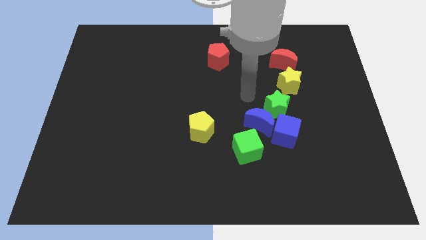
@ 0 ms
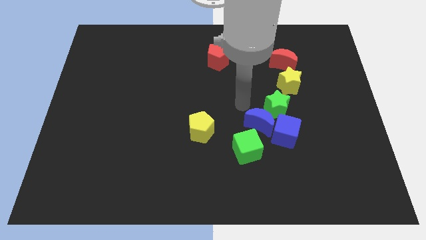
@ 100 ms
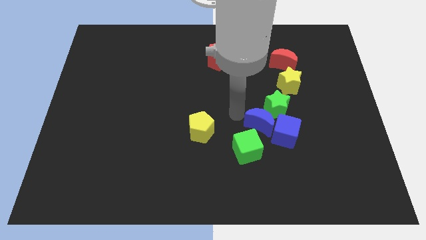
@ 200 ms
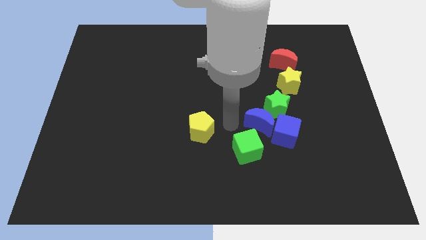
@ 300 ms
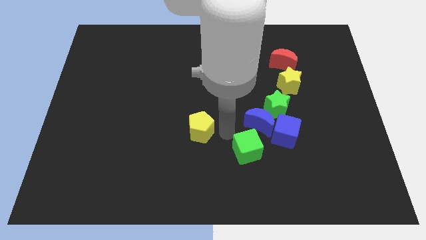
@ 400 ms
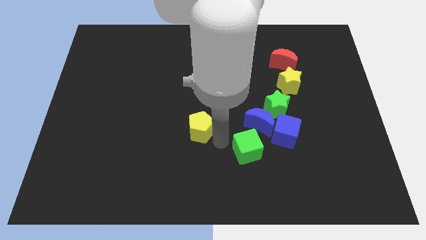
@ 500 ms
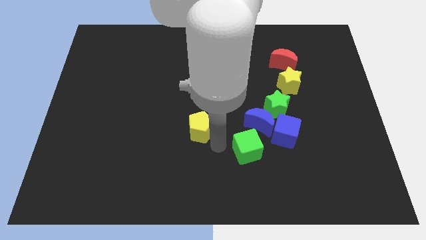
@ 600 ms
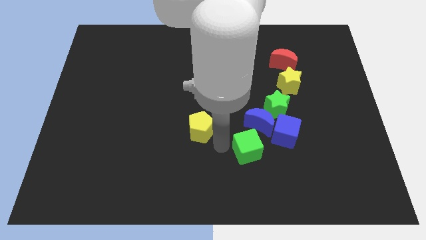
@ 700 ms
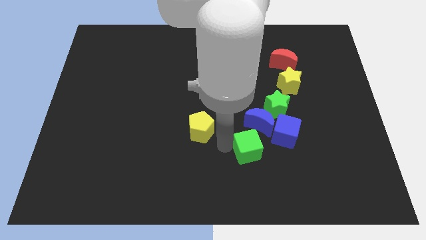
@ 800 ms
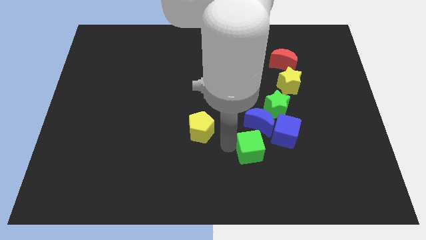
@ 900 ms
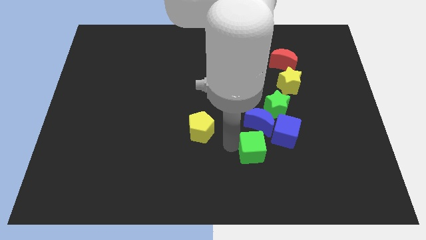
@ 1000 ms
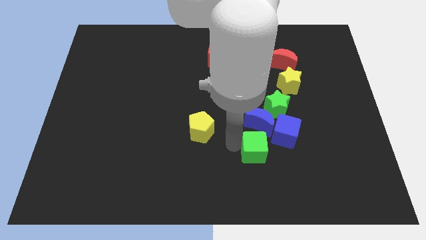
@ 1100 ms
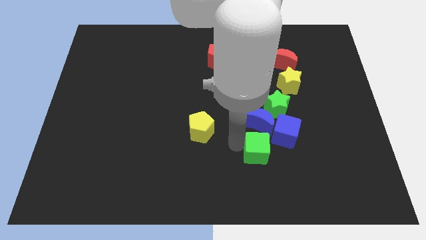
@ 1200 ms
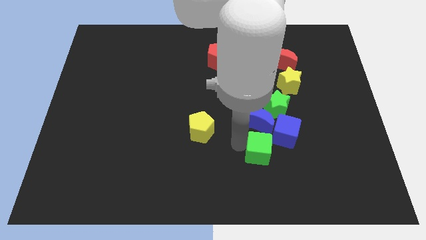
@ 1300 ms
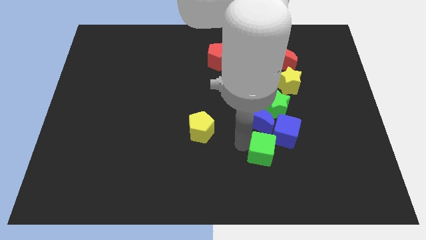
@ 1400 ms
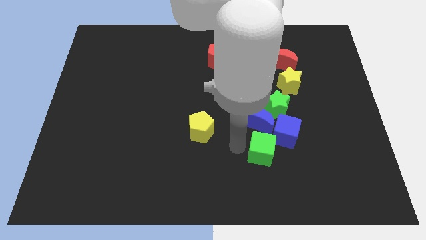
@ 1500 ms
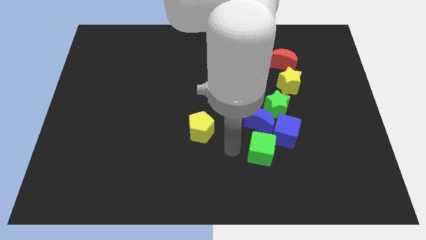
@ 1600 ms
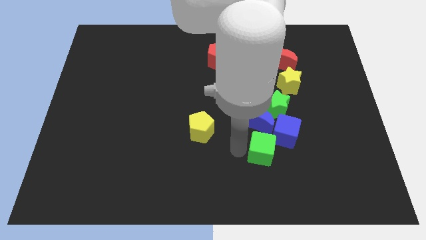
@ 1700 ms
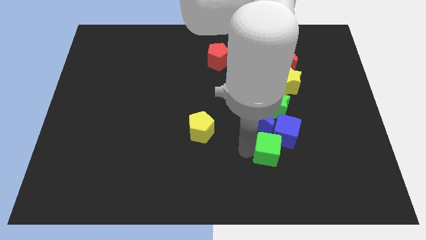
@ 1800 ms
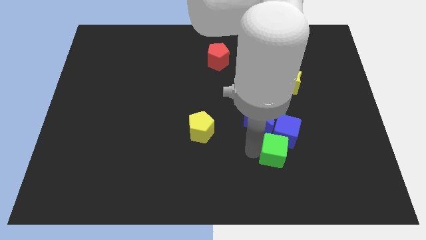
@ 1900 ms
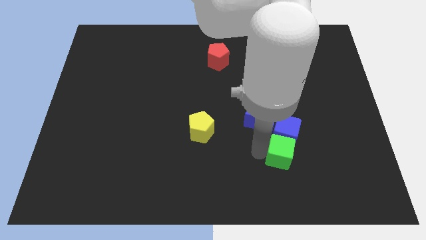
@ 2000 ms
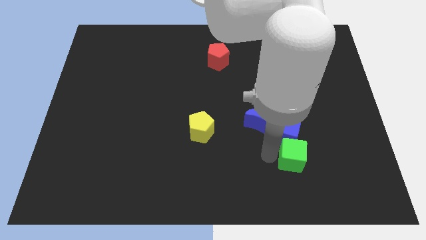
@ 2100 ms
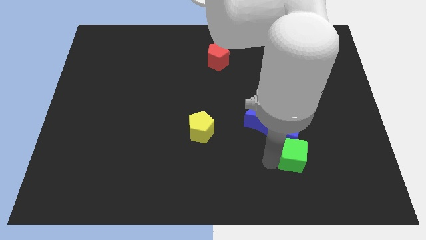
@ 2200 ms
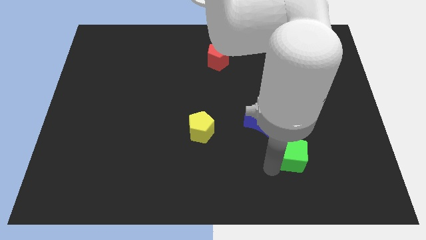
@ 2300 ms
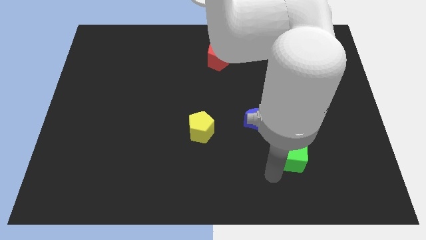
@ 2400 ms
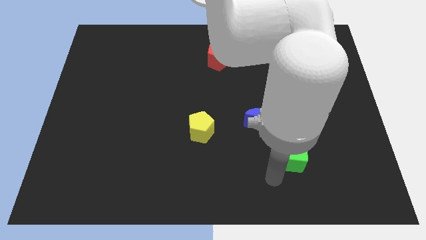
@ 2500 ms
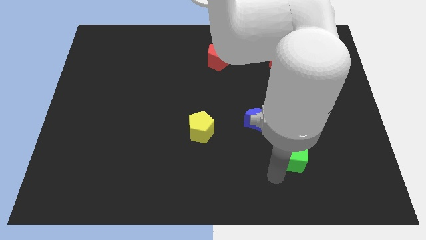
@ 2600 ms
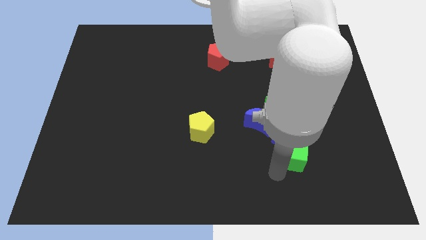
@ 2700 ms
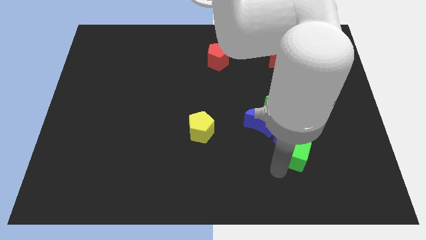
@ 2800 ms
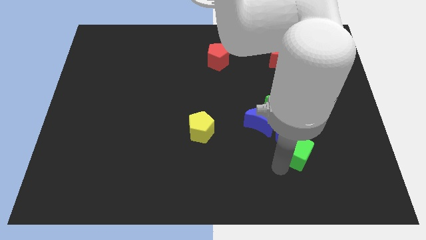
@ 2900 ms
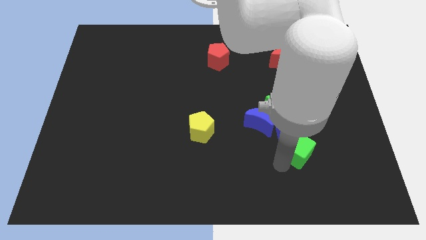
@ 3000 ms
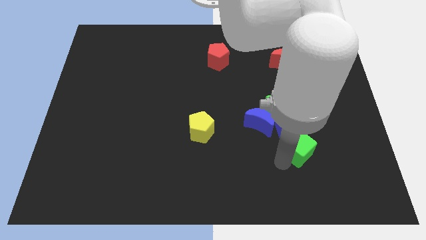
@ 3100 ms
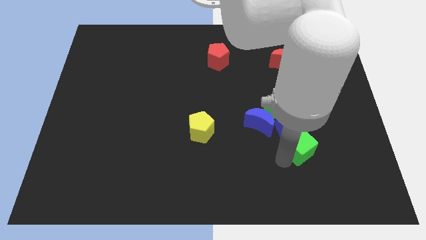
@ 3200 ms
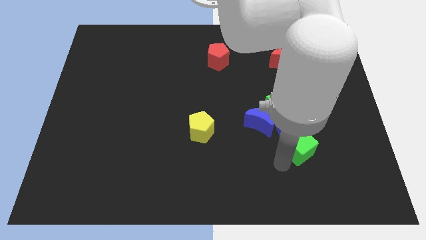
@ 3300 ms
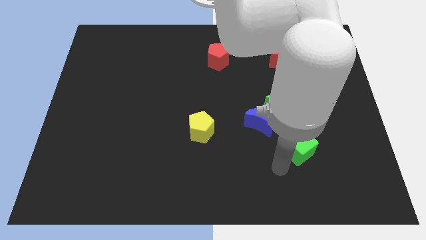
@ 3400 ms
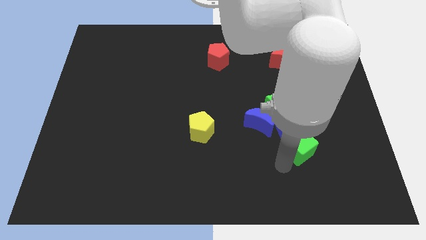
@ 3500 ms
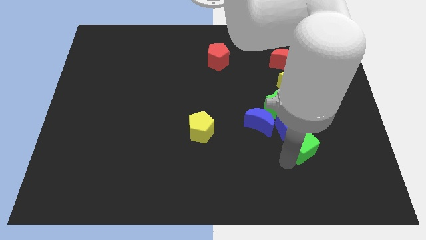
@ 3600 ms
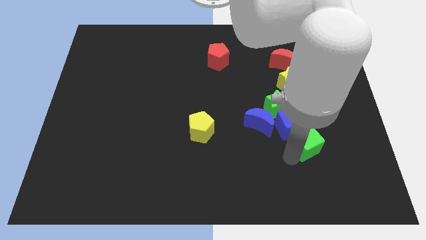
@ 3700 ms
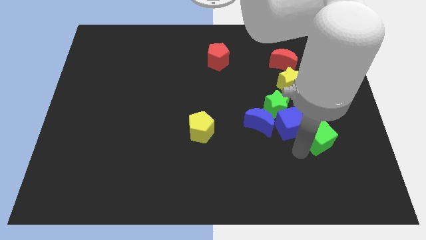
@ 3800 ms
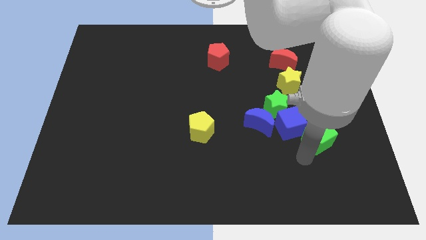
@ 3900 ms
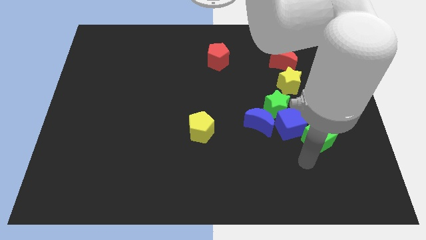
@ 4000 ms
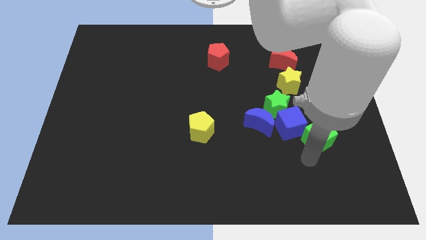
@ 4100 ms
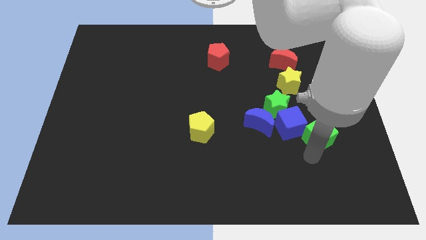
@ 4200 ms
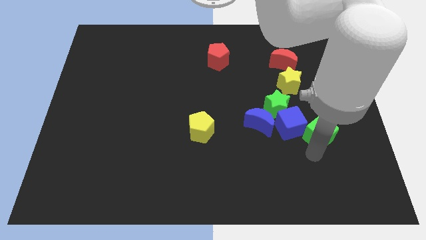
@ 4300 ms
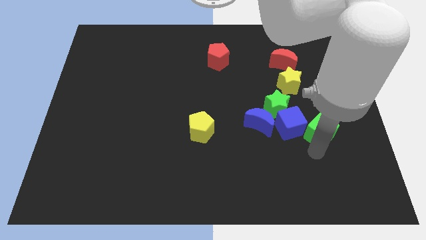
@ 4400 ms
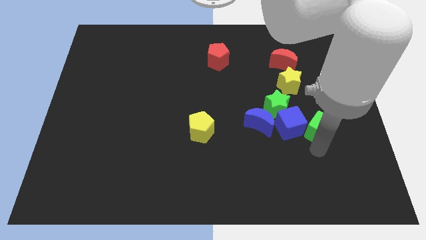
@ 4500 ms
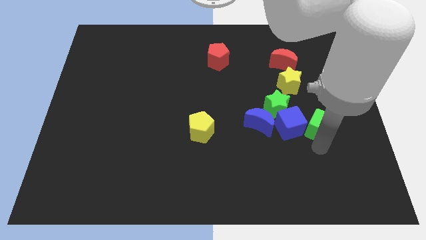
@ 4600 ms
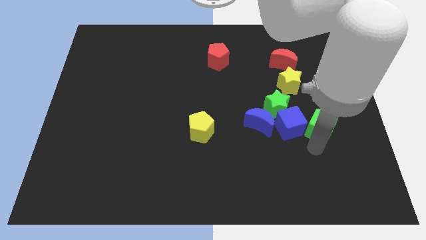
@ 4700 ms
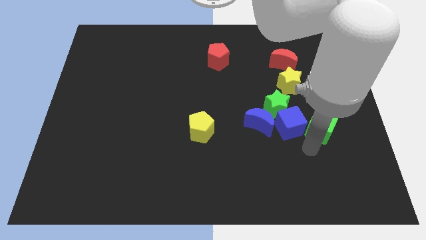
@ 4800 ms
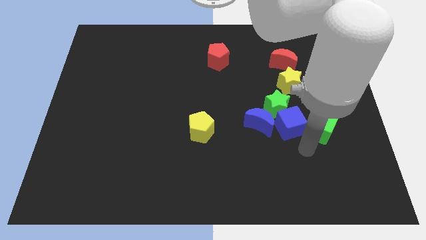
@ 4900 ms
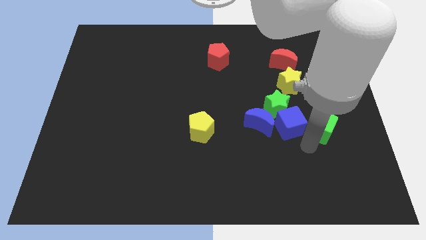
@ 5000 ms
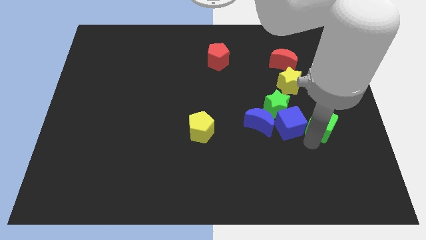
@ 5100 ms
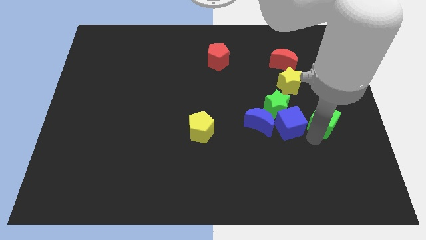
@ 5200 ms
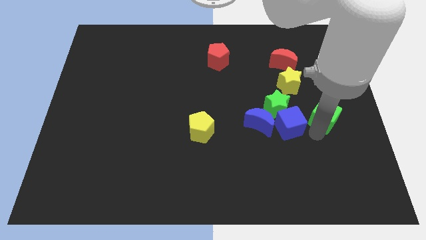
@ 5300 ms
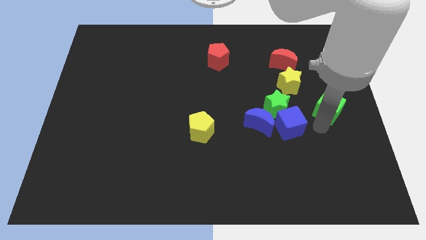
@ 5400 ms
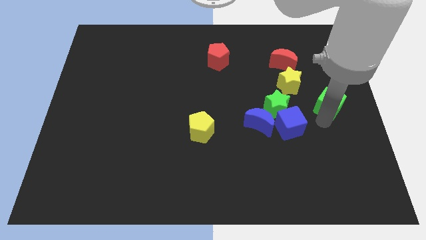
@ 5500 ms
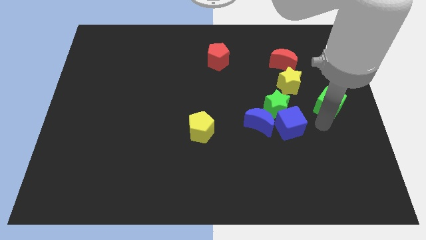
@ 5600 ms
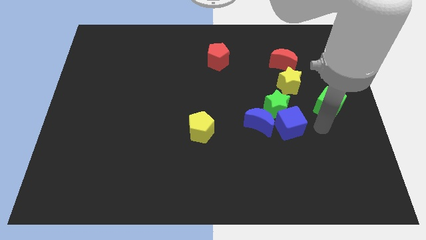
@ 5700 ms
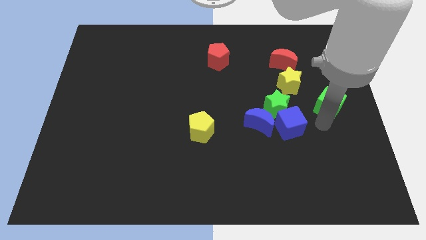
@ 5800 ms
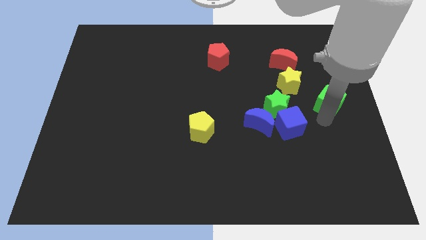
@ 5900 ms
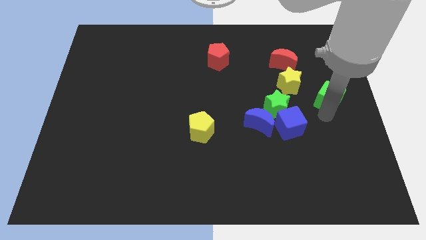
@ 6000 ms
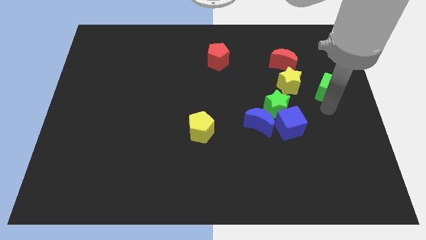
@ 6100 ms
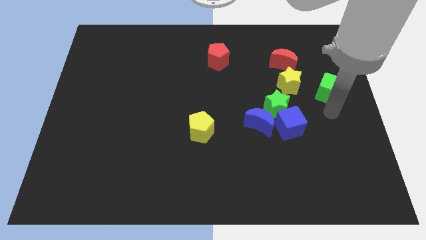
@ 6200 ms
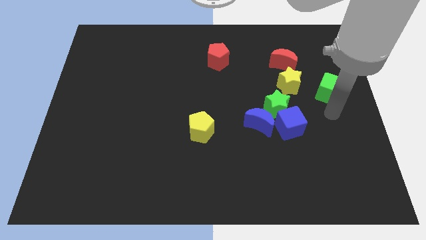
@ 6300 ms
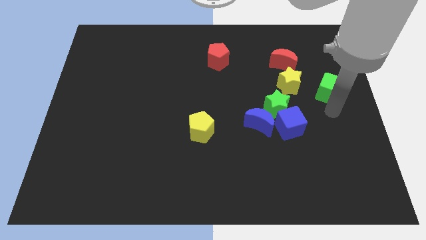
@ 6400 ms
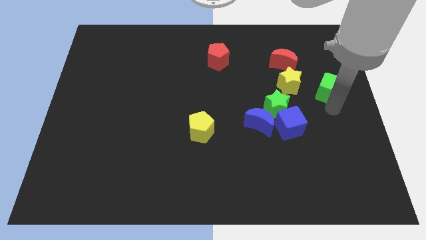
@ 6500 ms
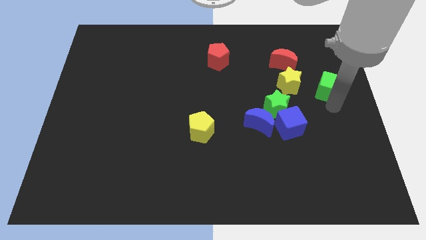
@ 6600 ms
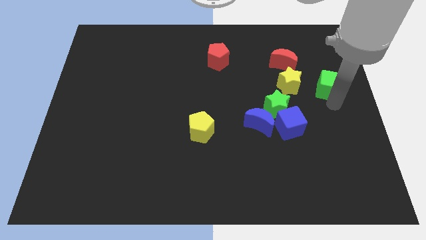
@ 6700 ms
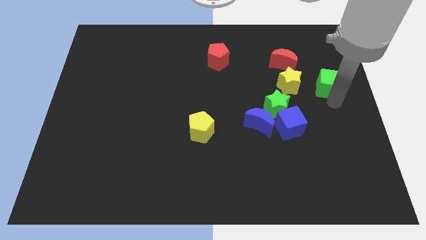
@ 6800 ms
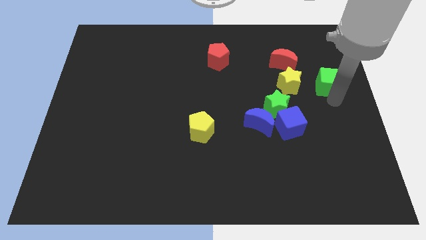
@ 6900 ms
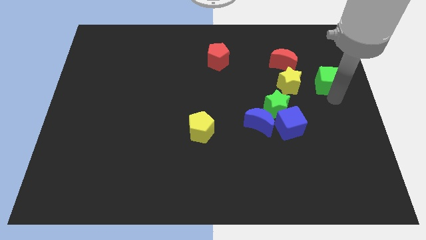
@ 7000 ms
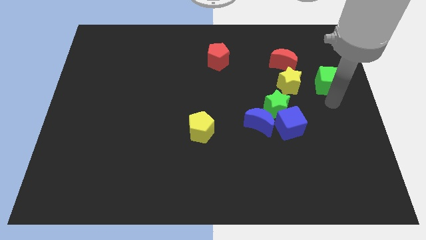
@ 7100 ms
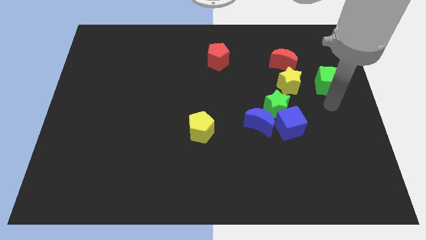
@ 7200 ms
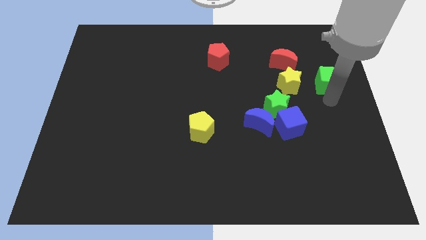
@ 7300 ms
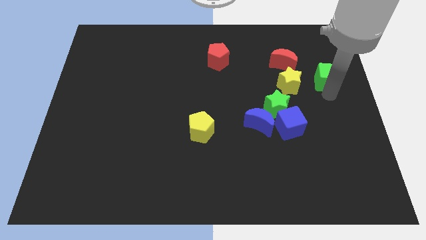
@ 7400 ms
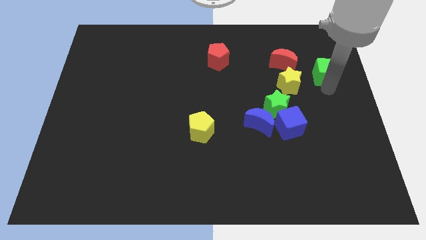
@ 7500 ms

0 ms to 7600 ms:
put the green cube to the right of the red moon
